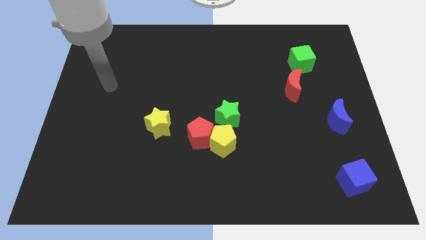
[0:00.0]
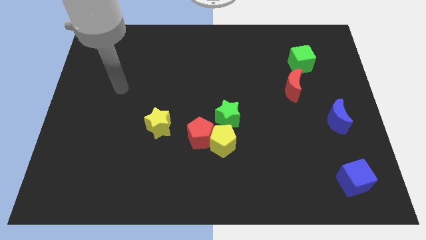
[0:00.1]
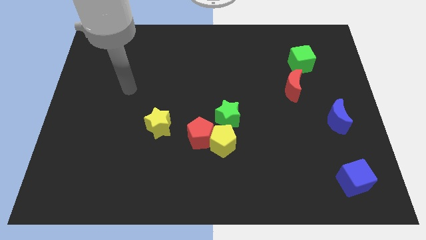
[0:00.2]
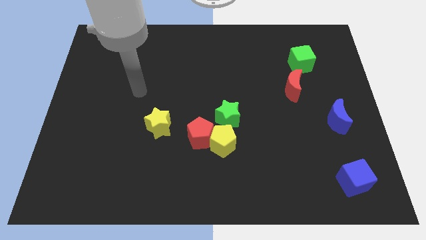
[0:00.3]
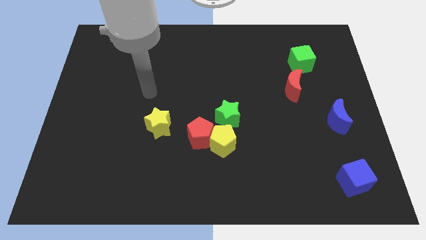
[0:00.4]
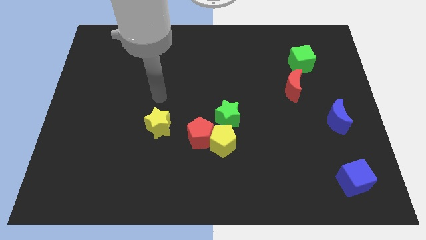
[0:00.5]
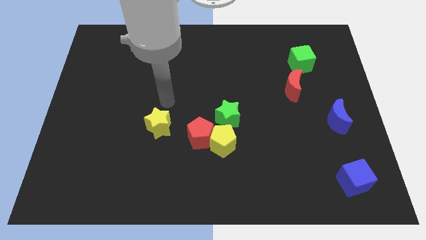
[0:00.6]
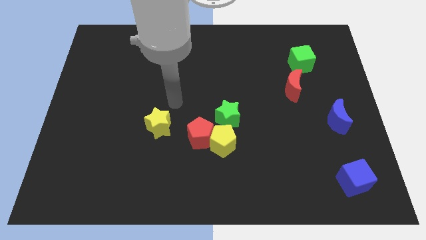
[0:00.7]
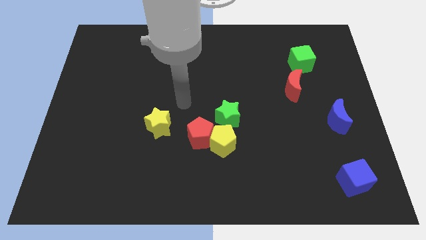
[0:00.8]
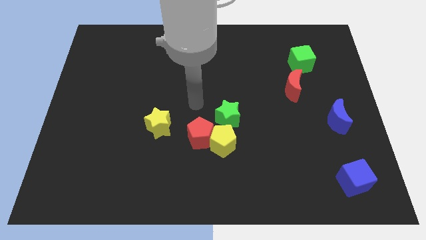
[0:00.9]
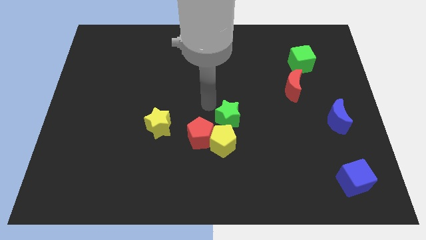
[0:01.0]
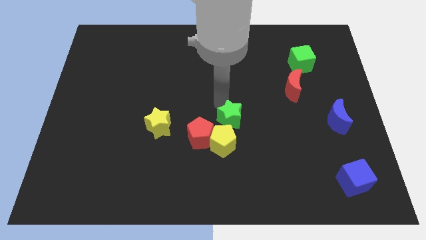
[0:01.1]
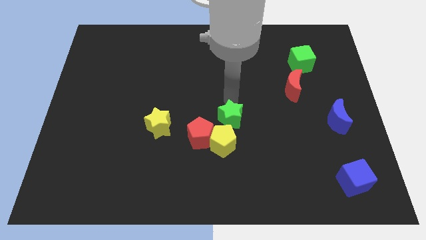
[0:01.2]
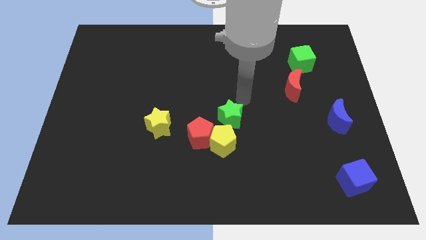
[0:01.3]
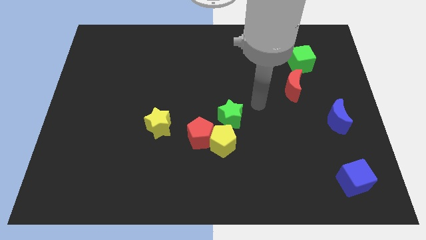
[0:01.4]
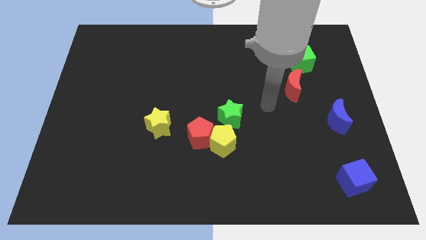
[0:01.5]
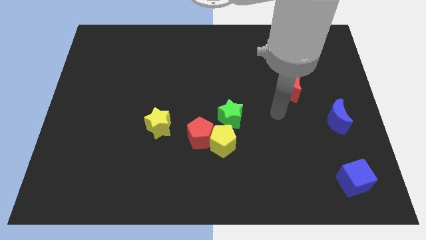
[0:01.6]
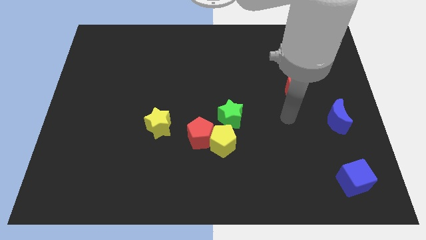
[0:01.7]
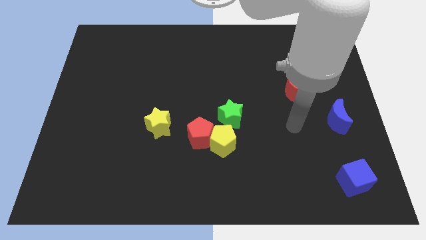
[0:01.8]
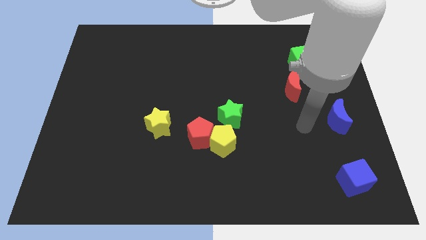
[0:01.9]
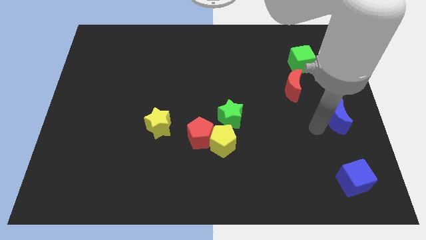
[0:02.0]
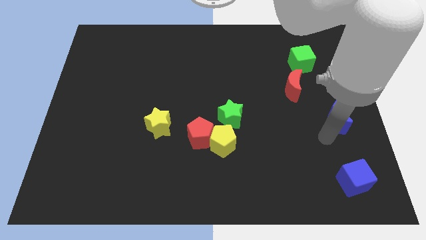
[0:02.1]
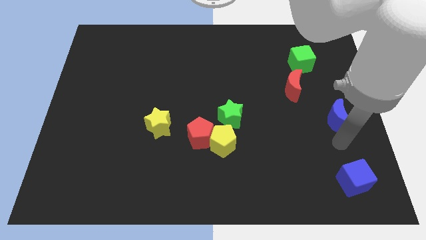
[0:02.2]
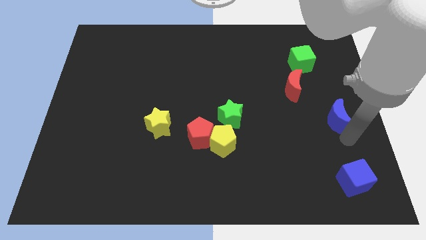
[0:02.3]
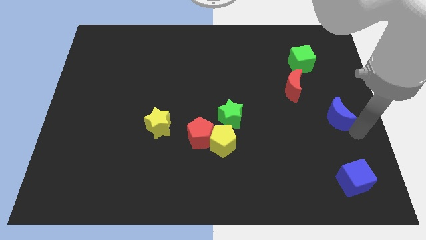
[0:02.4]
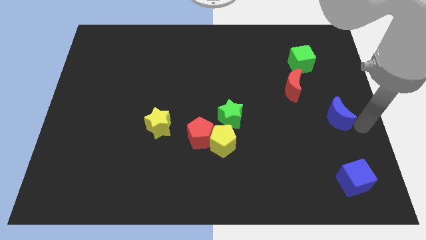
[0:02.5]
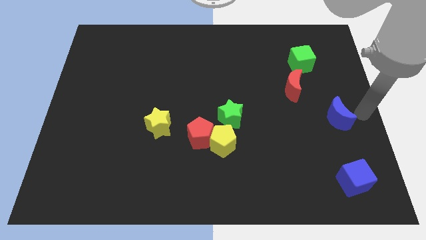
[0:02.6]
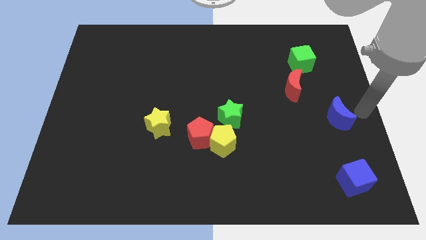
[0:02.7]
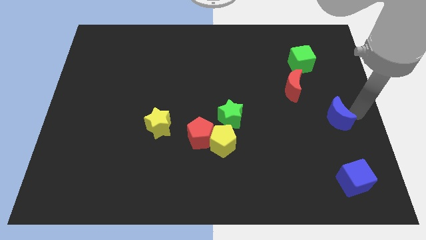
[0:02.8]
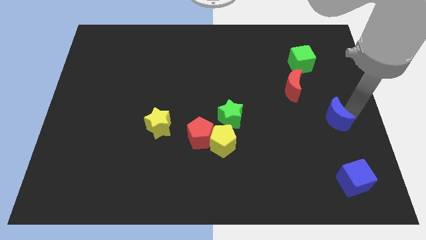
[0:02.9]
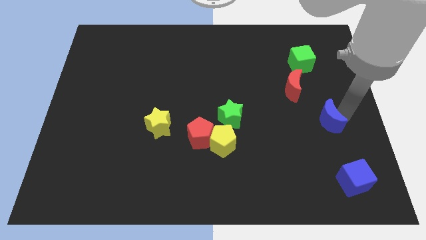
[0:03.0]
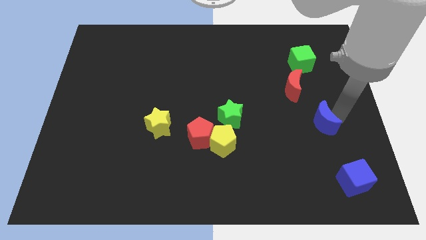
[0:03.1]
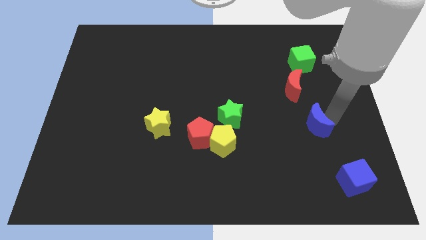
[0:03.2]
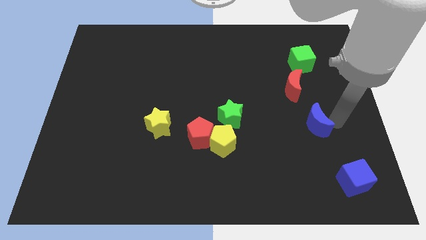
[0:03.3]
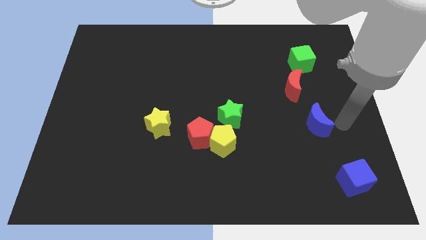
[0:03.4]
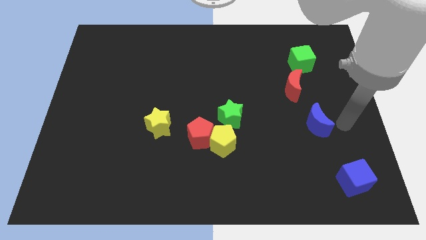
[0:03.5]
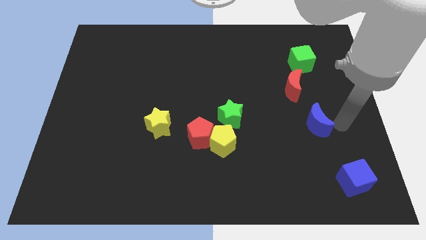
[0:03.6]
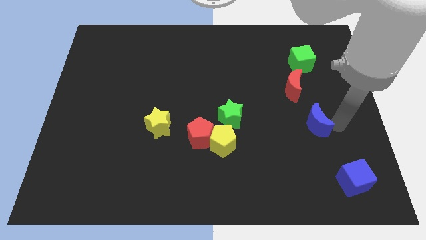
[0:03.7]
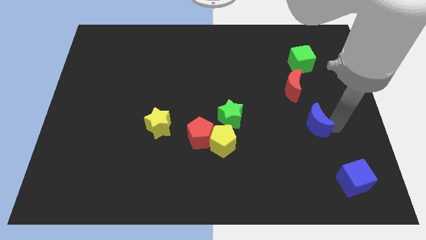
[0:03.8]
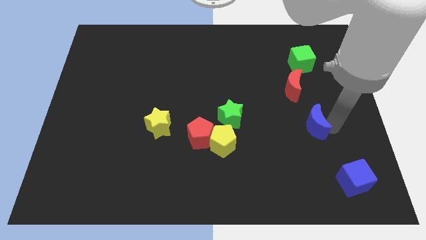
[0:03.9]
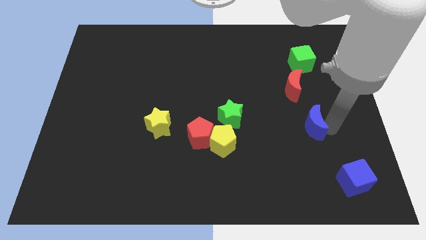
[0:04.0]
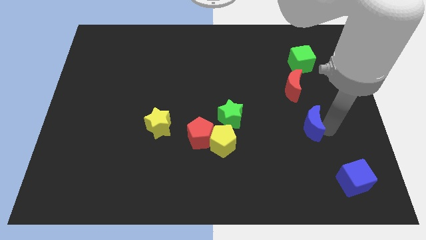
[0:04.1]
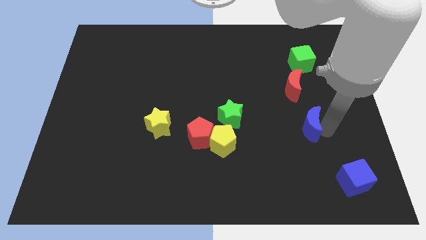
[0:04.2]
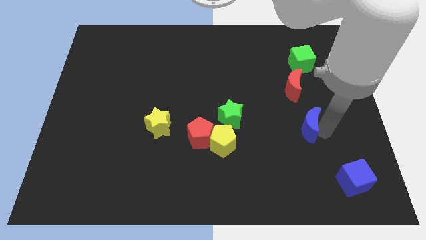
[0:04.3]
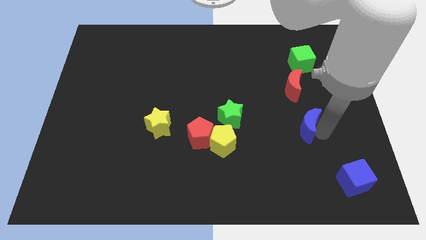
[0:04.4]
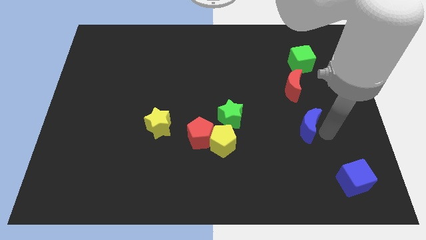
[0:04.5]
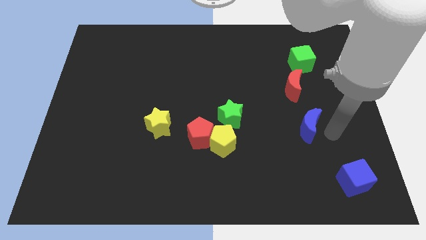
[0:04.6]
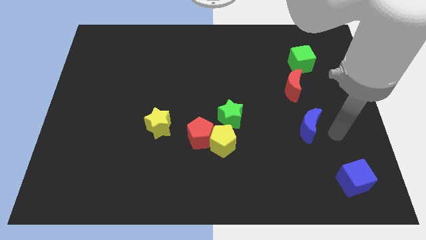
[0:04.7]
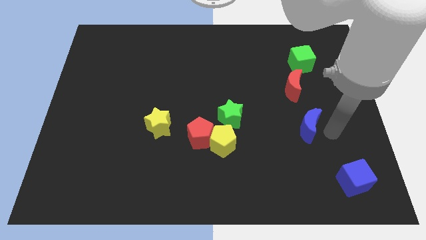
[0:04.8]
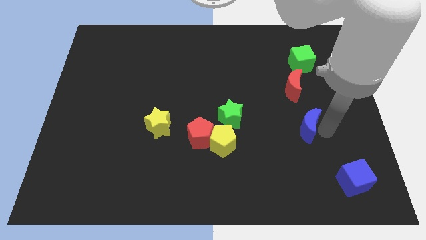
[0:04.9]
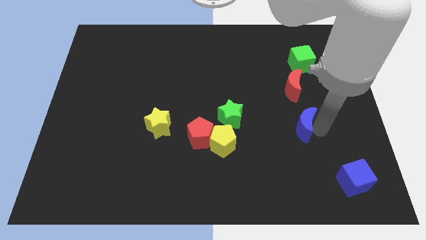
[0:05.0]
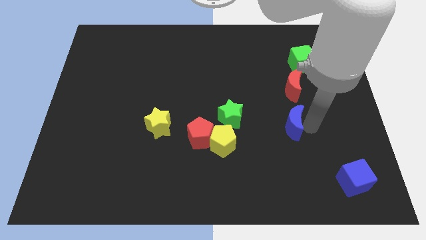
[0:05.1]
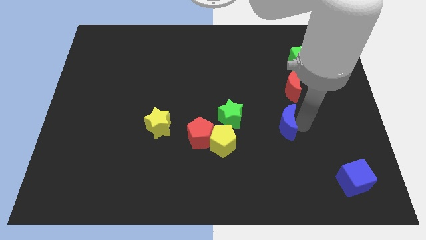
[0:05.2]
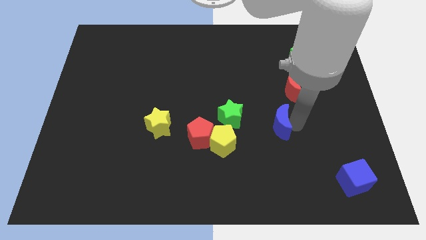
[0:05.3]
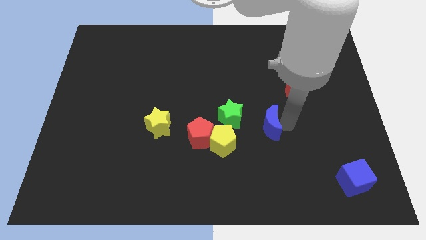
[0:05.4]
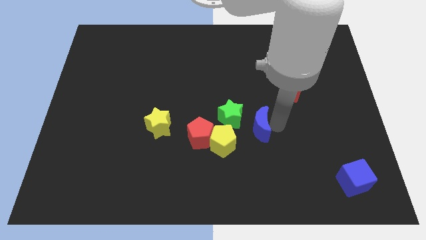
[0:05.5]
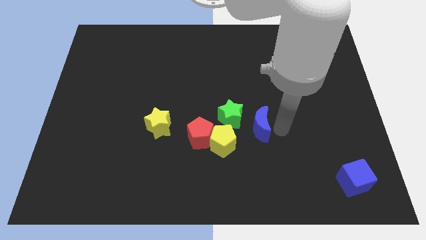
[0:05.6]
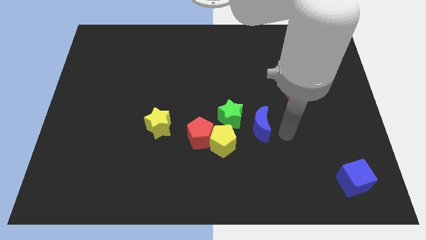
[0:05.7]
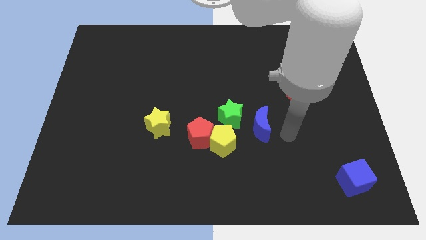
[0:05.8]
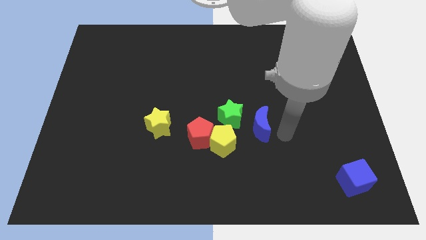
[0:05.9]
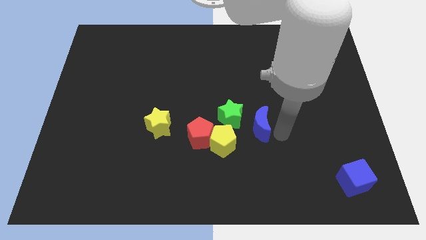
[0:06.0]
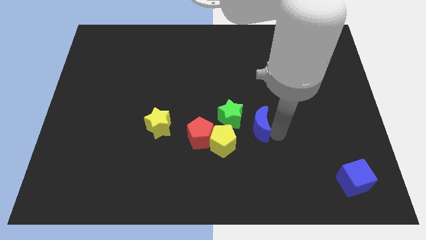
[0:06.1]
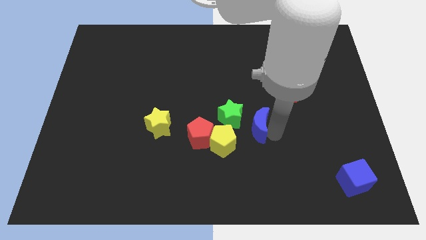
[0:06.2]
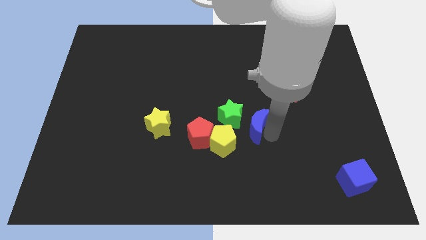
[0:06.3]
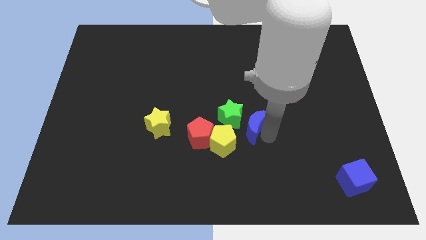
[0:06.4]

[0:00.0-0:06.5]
put the blue moon close to the green star

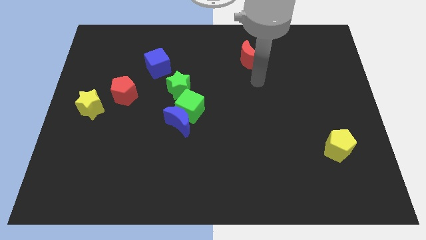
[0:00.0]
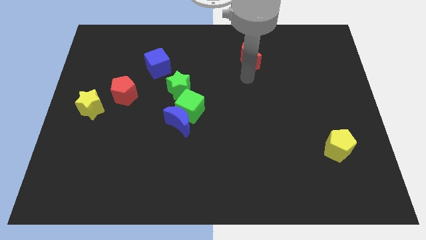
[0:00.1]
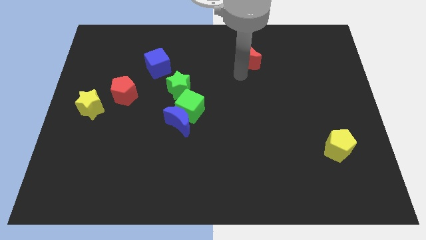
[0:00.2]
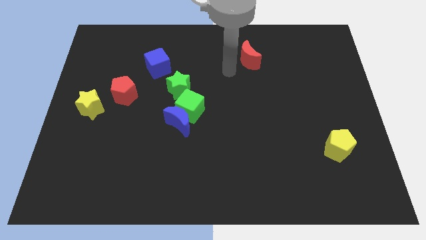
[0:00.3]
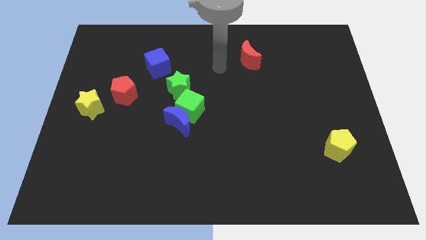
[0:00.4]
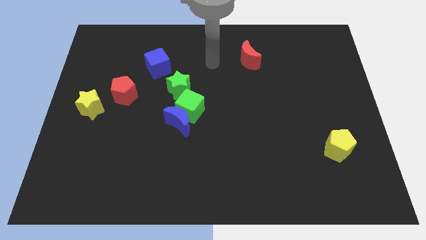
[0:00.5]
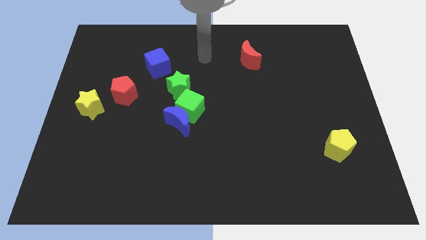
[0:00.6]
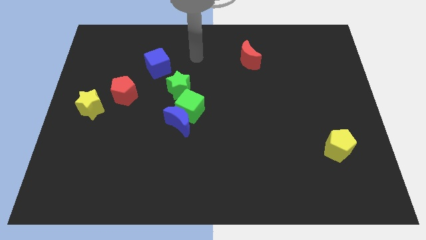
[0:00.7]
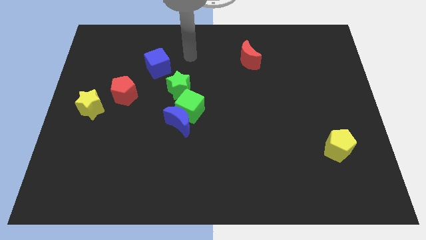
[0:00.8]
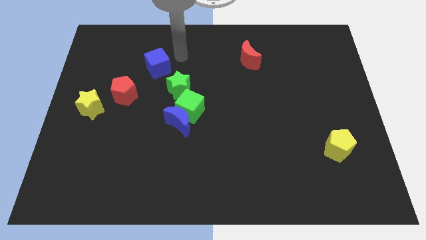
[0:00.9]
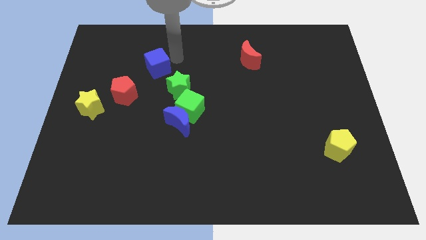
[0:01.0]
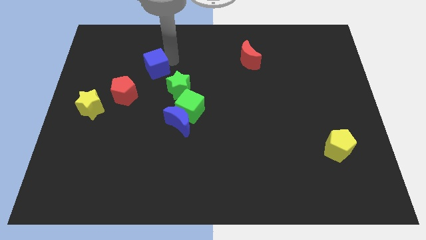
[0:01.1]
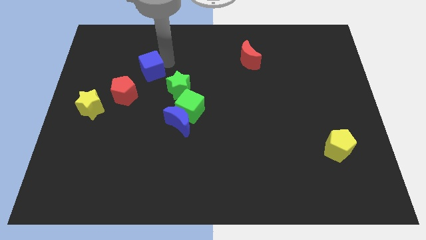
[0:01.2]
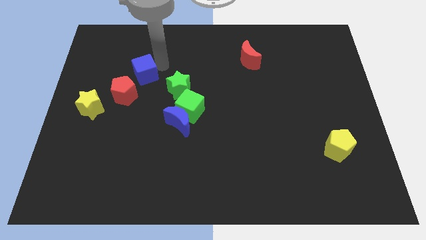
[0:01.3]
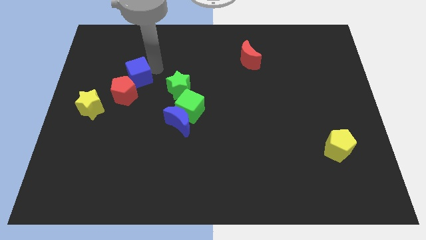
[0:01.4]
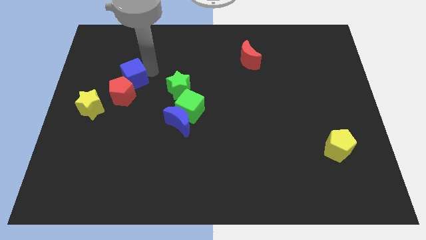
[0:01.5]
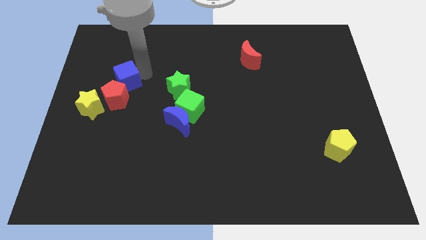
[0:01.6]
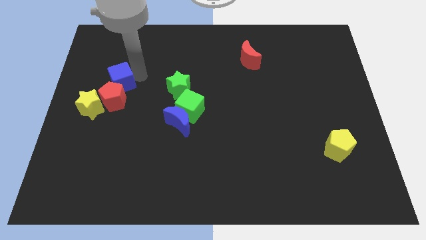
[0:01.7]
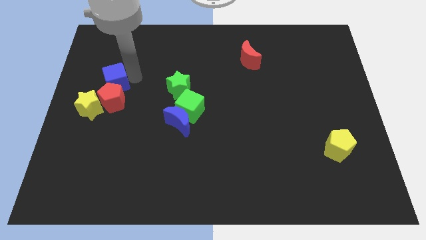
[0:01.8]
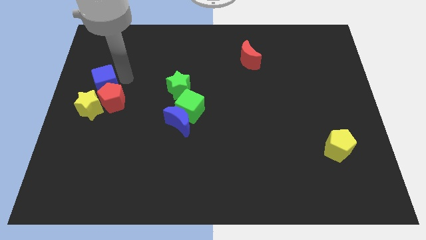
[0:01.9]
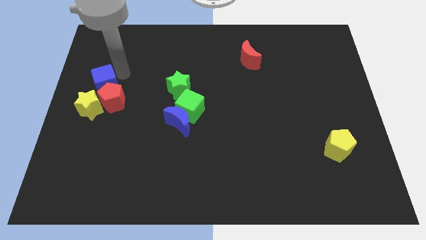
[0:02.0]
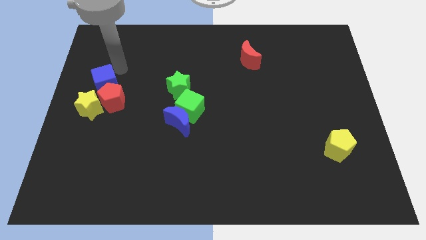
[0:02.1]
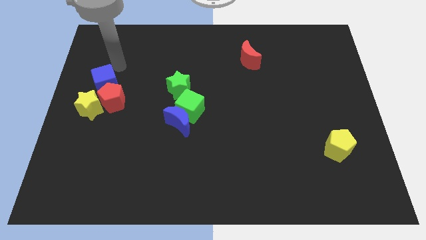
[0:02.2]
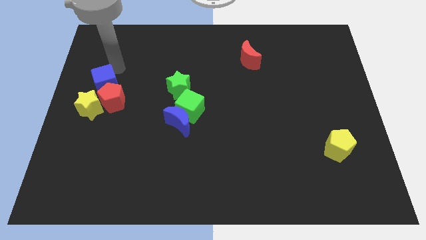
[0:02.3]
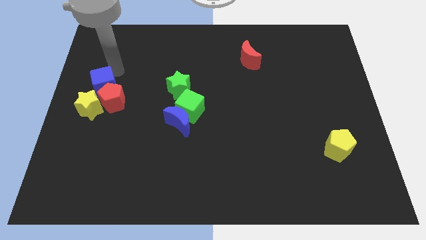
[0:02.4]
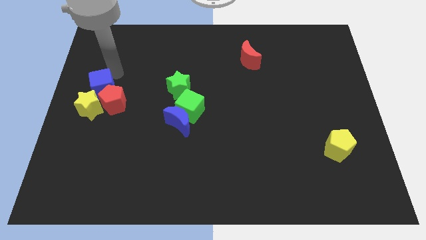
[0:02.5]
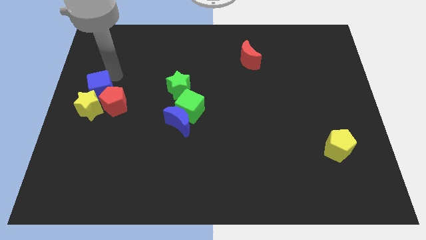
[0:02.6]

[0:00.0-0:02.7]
slide the blue cube next to the yellow star
